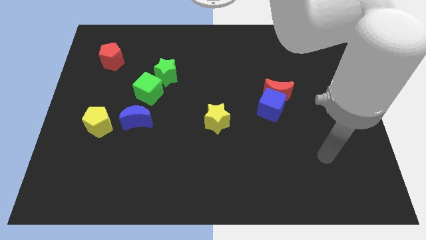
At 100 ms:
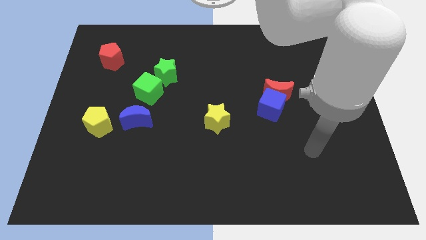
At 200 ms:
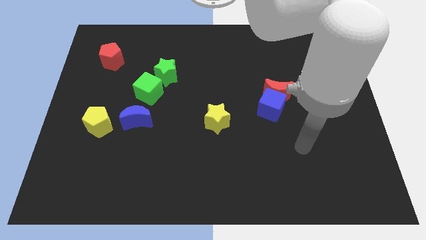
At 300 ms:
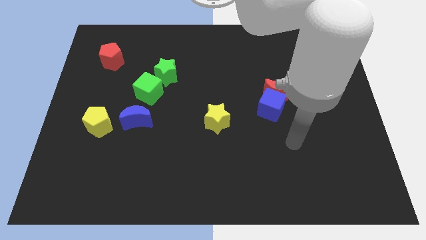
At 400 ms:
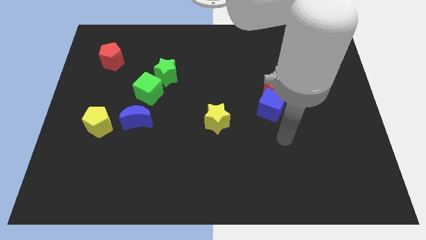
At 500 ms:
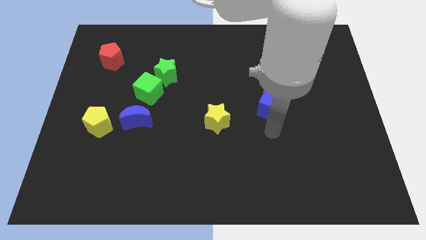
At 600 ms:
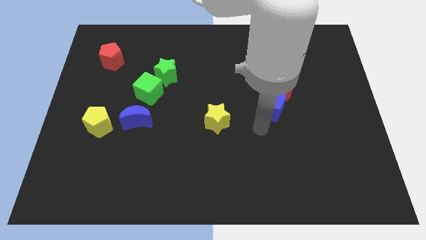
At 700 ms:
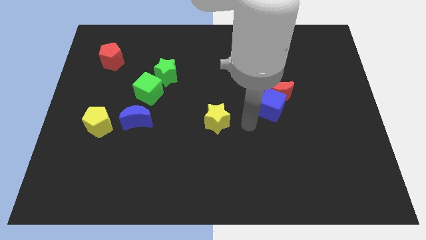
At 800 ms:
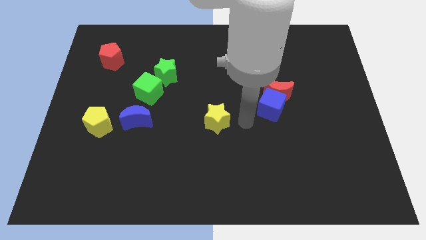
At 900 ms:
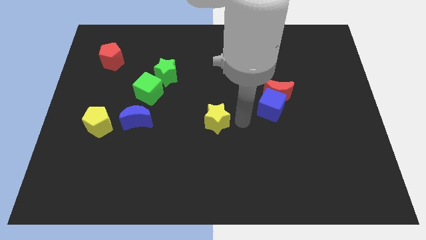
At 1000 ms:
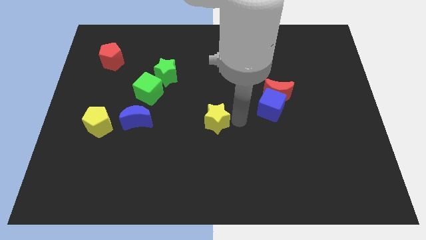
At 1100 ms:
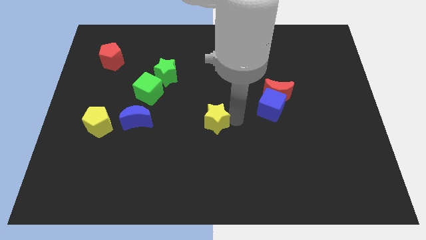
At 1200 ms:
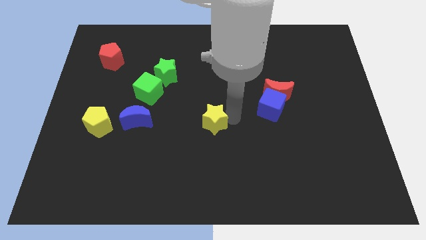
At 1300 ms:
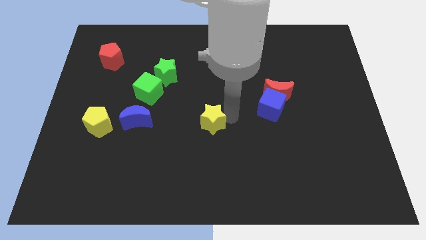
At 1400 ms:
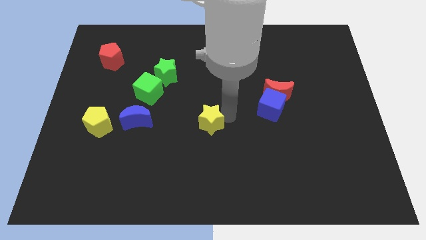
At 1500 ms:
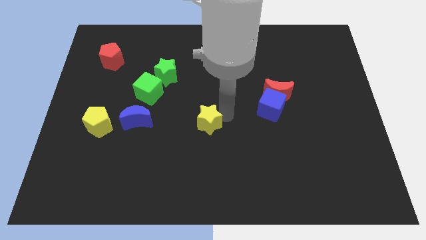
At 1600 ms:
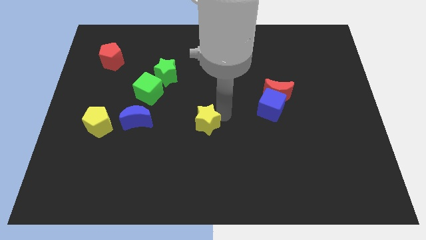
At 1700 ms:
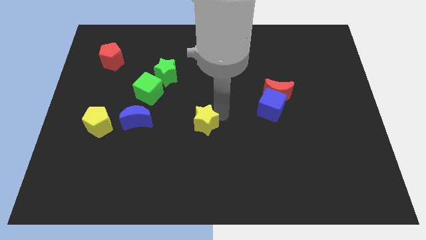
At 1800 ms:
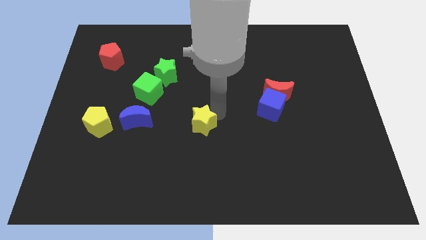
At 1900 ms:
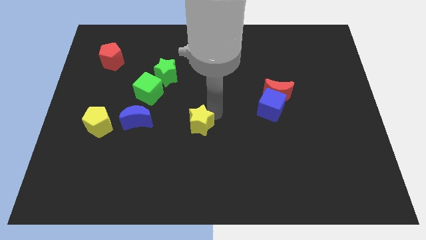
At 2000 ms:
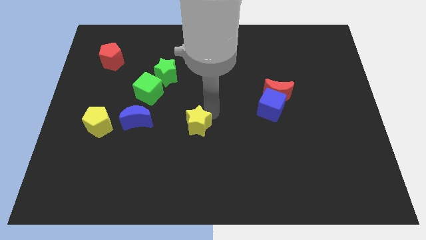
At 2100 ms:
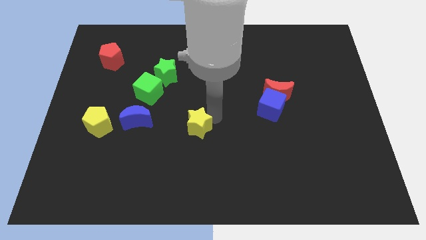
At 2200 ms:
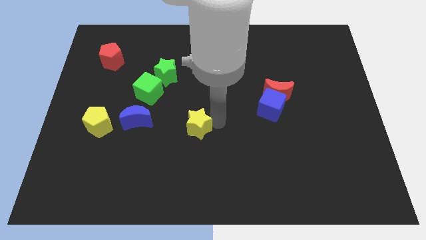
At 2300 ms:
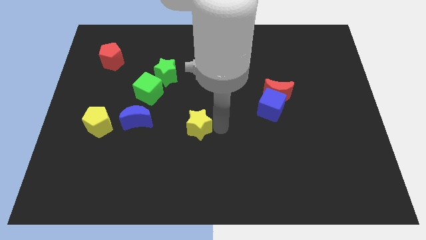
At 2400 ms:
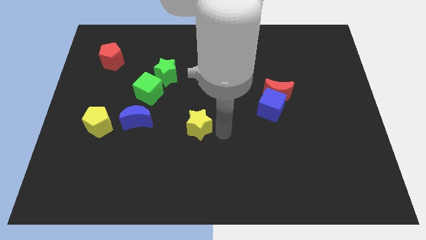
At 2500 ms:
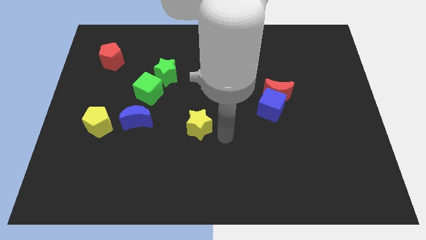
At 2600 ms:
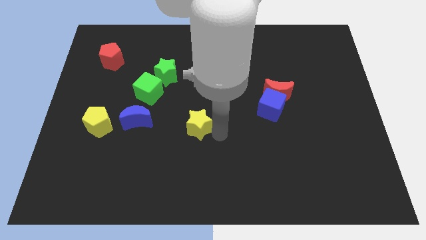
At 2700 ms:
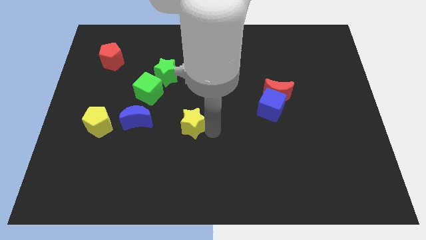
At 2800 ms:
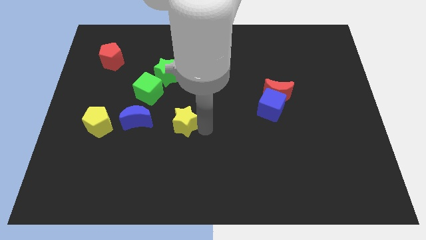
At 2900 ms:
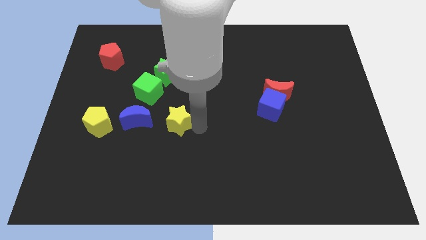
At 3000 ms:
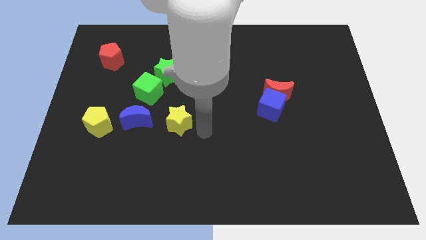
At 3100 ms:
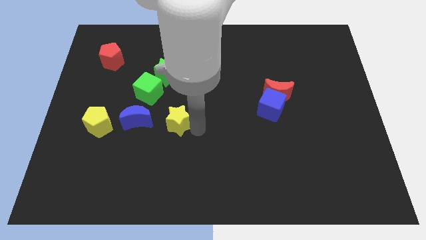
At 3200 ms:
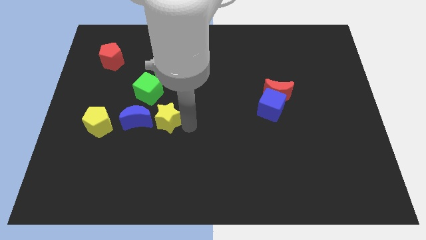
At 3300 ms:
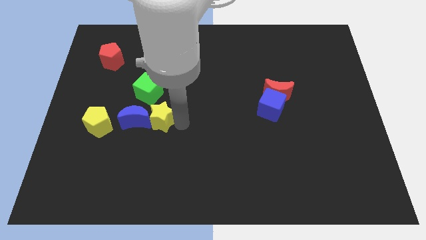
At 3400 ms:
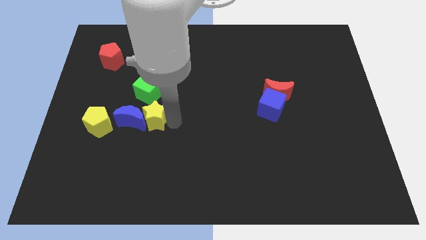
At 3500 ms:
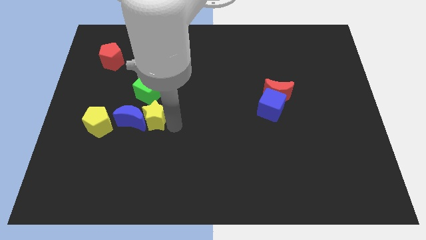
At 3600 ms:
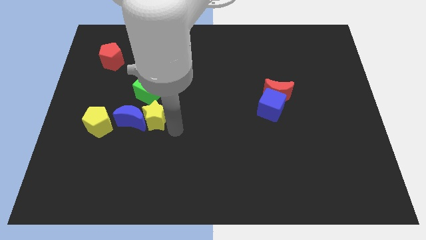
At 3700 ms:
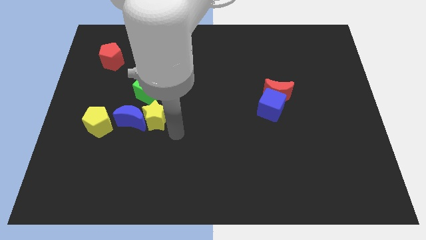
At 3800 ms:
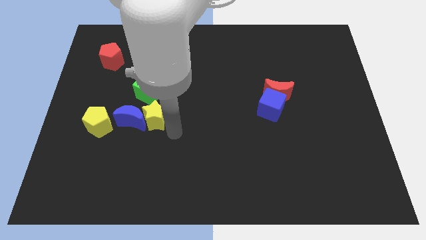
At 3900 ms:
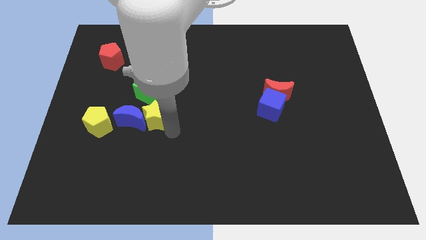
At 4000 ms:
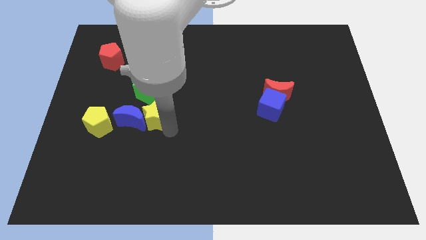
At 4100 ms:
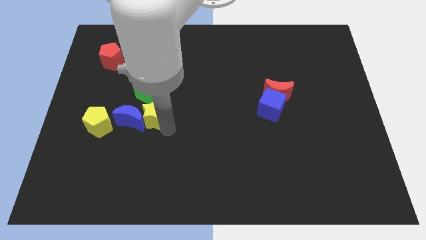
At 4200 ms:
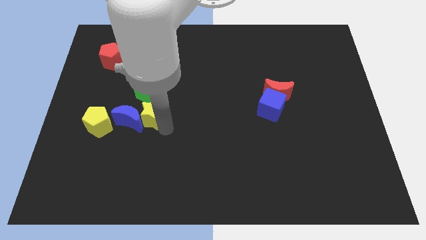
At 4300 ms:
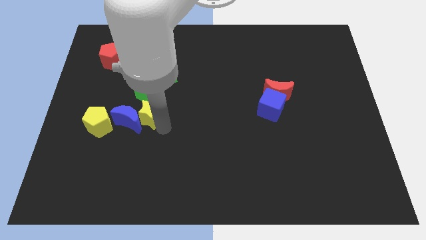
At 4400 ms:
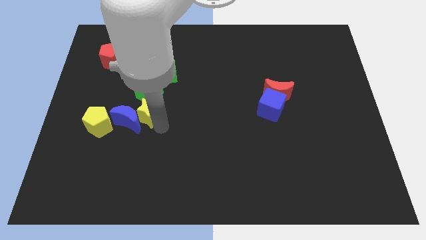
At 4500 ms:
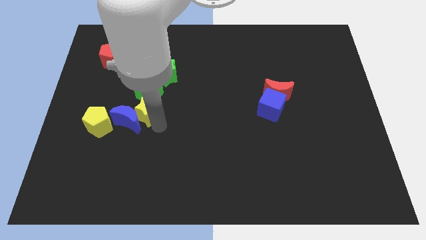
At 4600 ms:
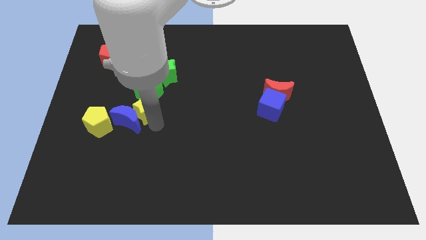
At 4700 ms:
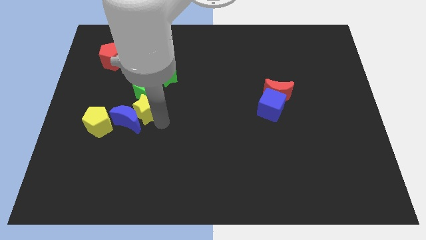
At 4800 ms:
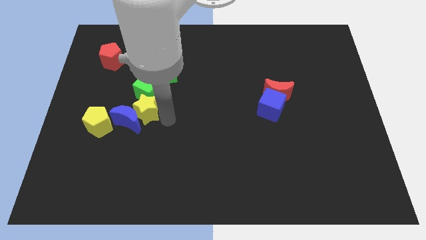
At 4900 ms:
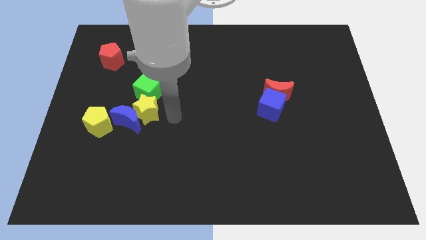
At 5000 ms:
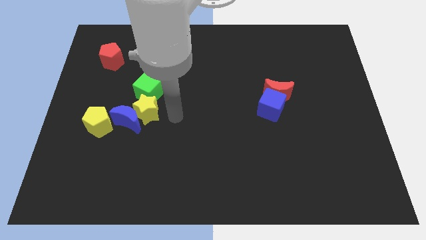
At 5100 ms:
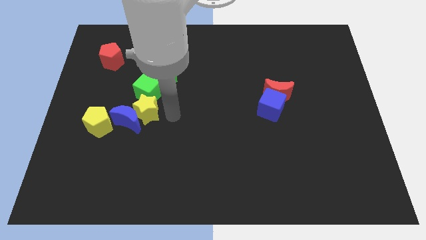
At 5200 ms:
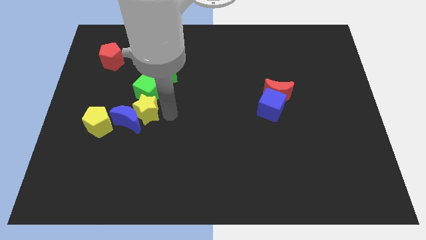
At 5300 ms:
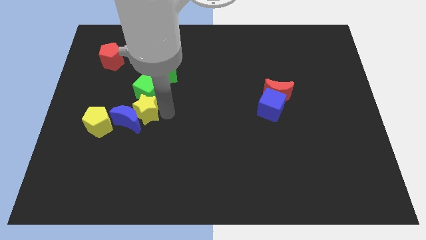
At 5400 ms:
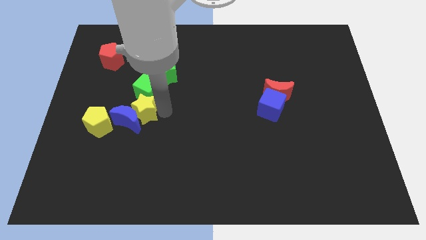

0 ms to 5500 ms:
slide the yellow star to the top right of the yellow pentagon

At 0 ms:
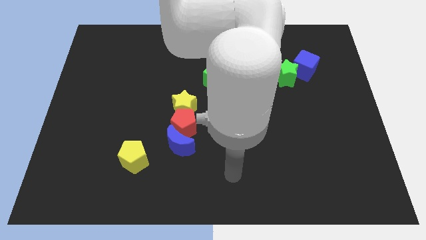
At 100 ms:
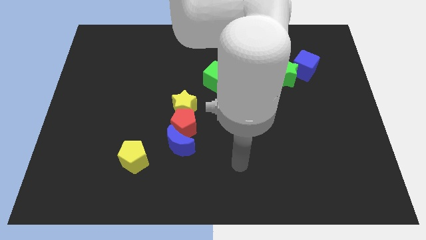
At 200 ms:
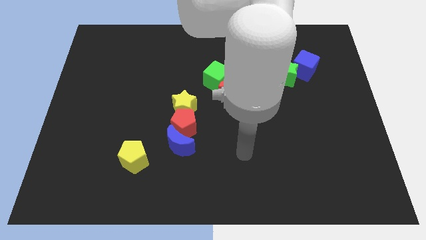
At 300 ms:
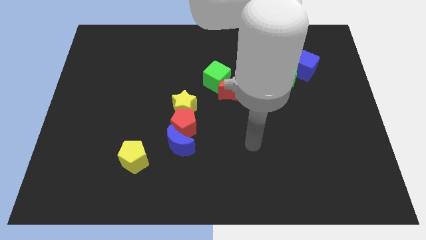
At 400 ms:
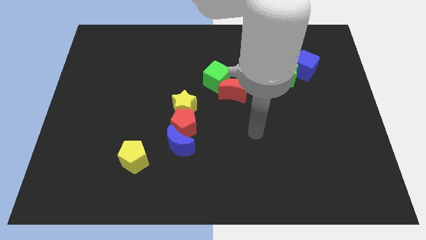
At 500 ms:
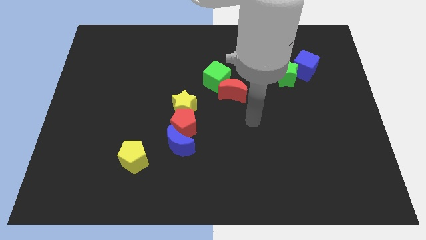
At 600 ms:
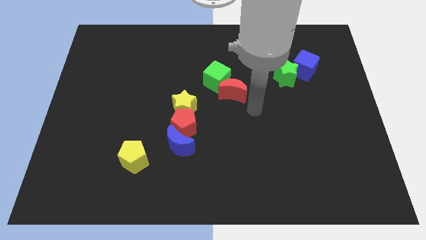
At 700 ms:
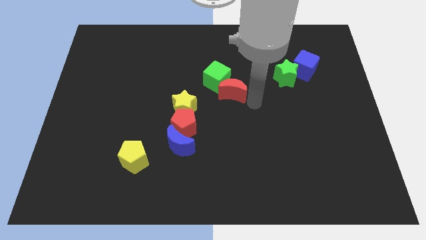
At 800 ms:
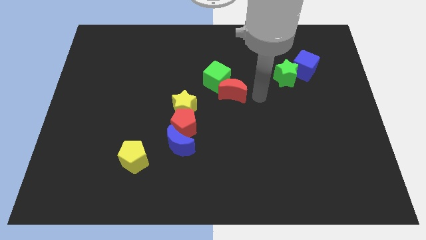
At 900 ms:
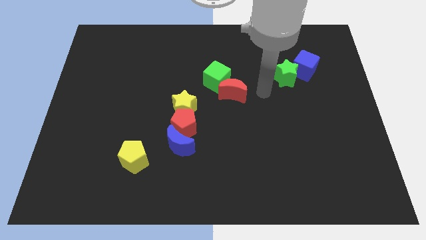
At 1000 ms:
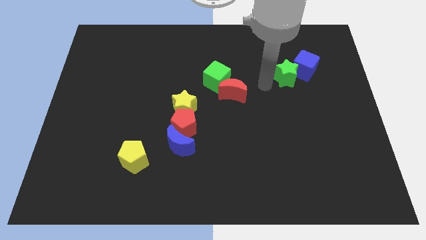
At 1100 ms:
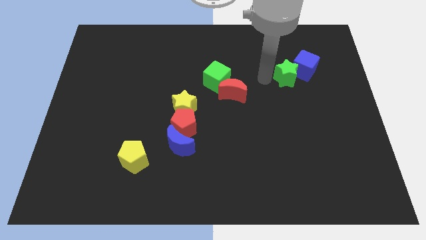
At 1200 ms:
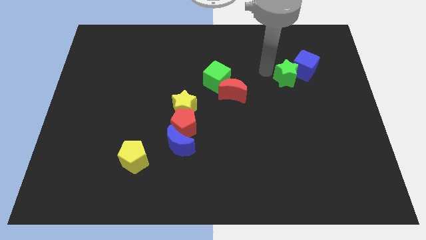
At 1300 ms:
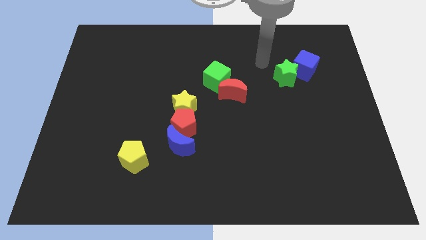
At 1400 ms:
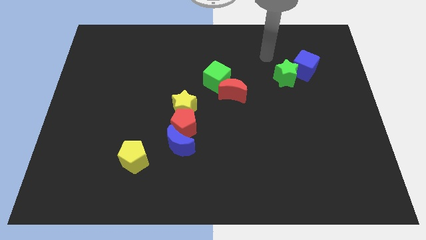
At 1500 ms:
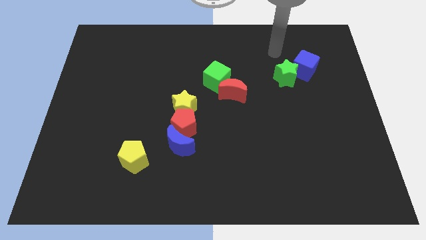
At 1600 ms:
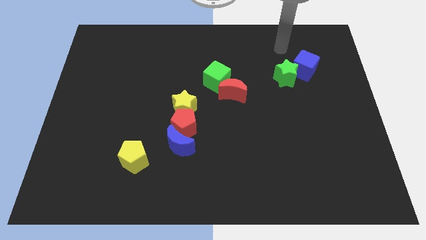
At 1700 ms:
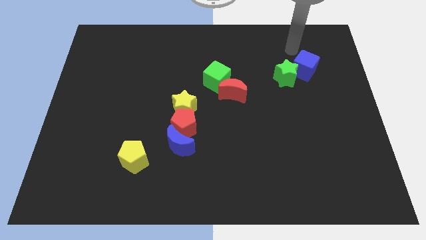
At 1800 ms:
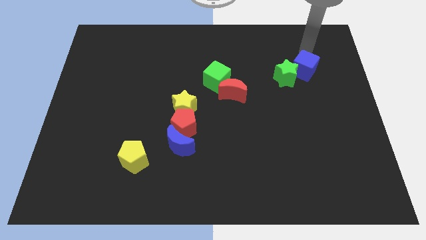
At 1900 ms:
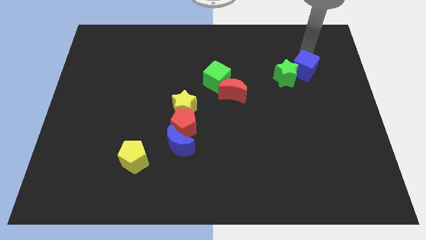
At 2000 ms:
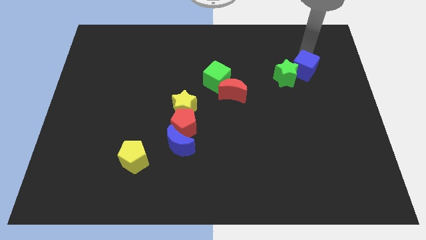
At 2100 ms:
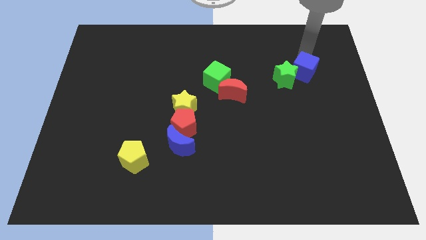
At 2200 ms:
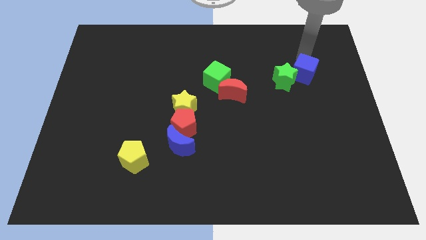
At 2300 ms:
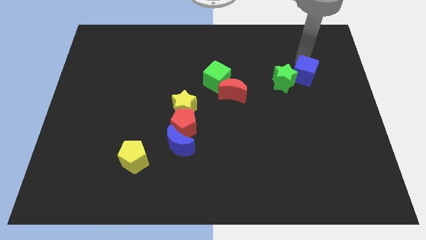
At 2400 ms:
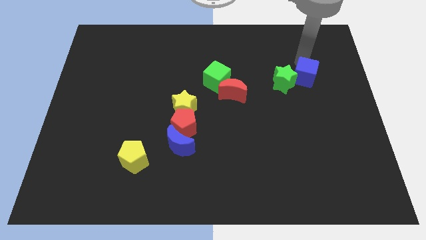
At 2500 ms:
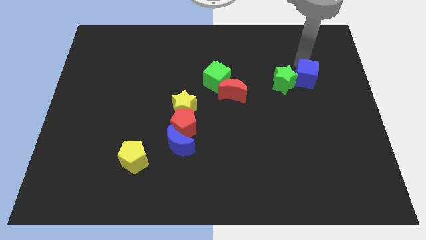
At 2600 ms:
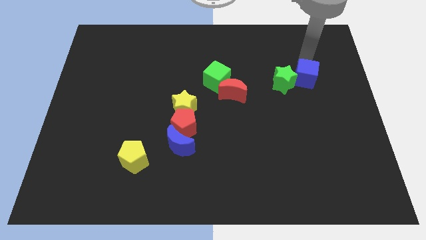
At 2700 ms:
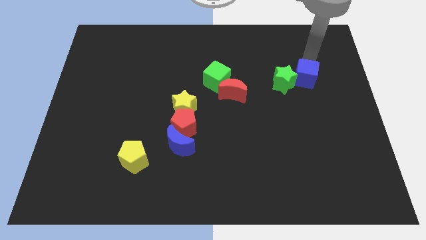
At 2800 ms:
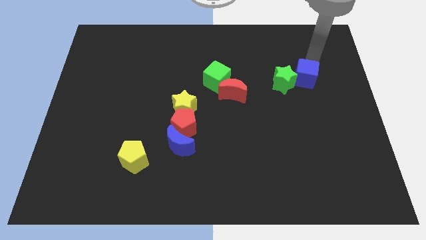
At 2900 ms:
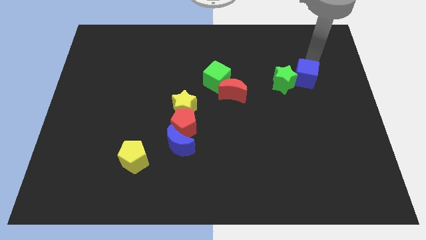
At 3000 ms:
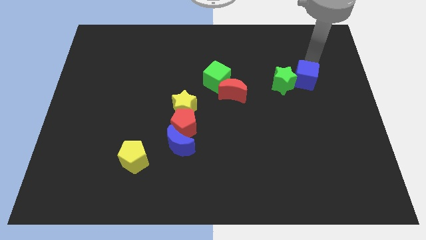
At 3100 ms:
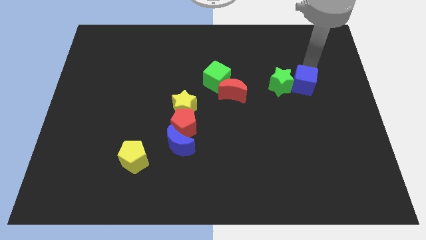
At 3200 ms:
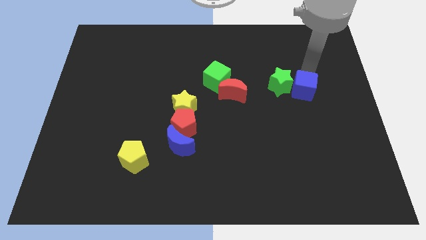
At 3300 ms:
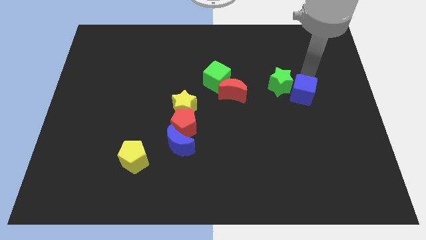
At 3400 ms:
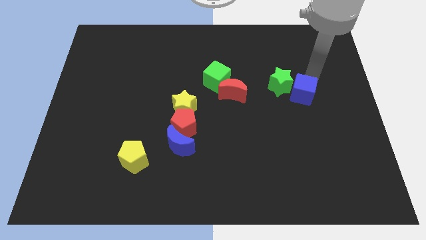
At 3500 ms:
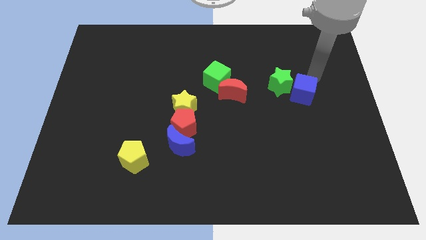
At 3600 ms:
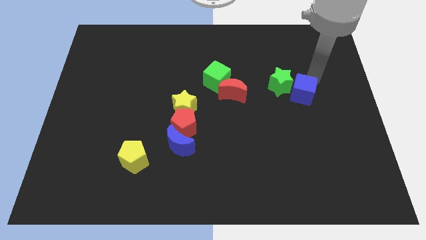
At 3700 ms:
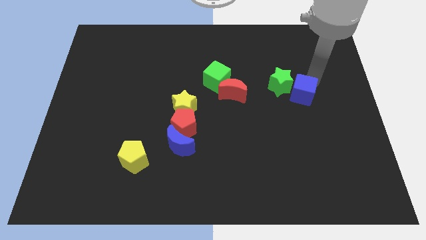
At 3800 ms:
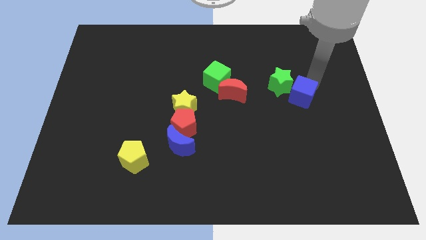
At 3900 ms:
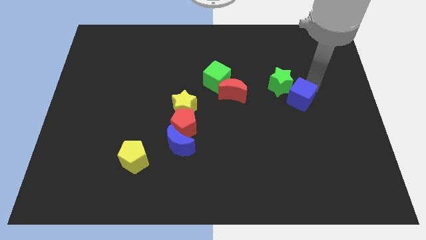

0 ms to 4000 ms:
move the blue cube to the bottom side of the green star
